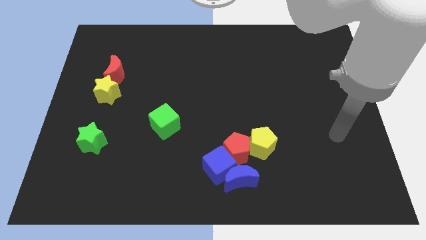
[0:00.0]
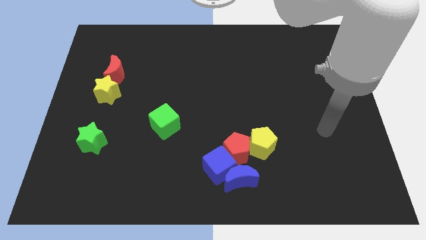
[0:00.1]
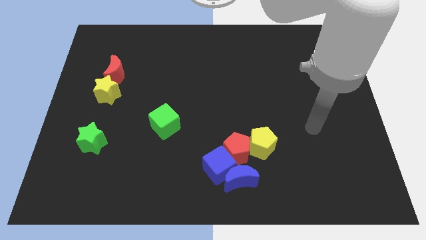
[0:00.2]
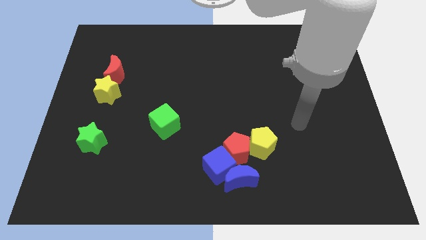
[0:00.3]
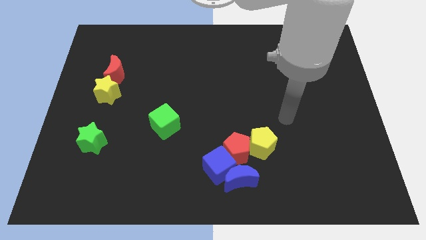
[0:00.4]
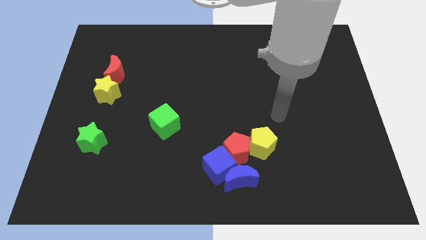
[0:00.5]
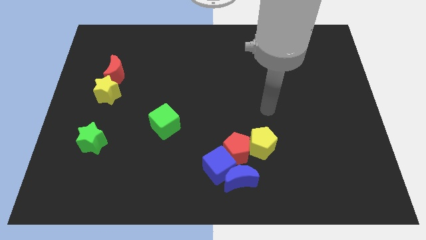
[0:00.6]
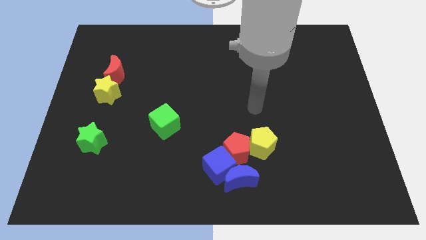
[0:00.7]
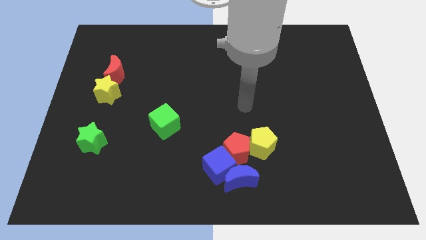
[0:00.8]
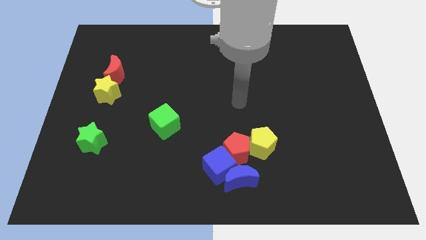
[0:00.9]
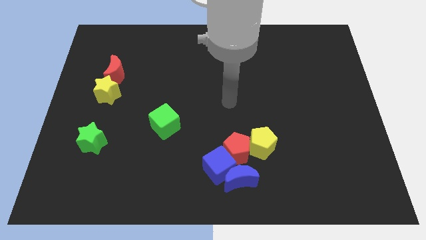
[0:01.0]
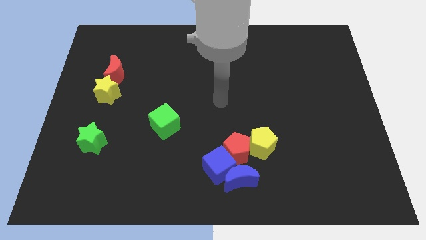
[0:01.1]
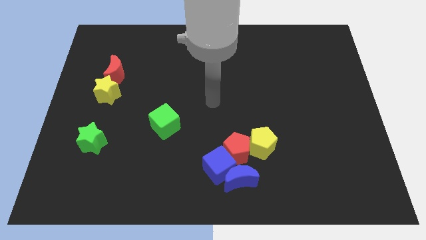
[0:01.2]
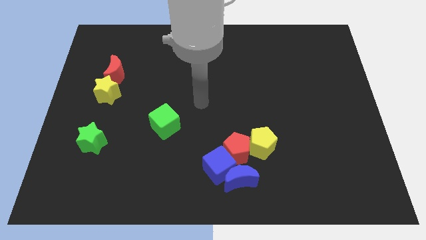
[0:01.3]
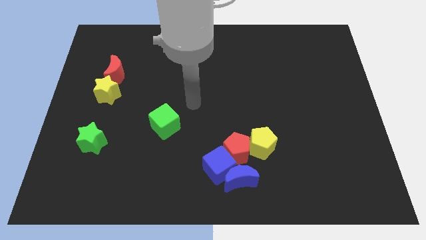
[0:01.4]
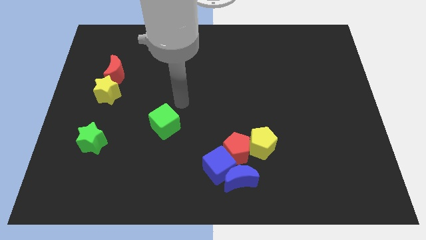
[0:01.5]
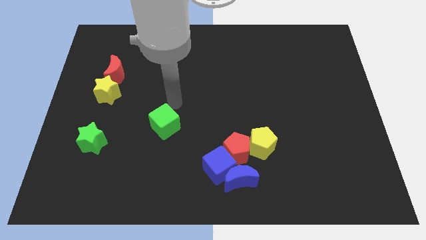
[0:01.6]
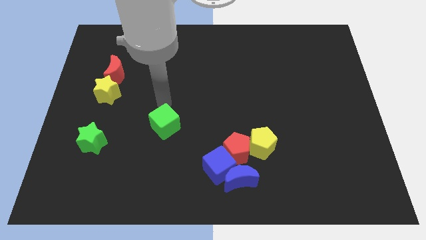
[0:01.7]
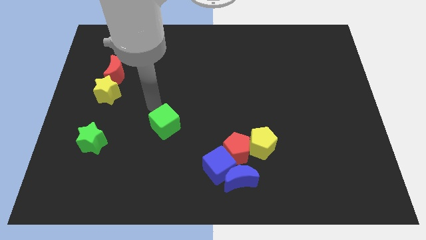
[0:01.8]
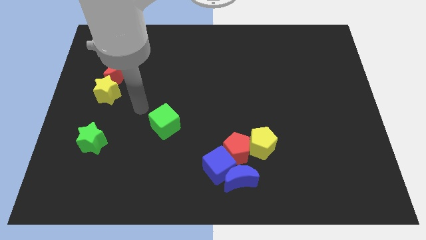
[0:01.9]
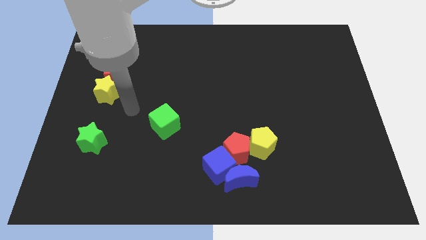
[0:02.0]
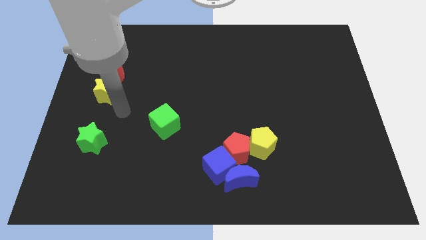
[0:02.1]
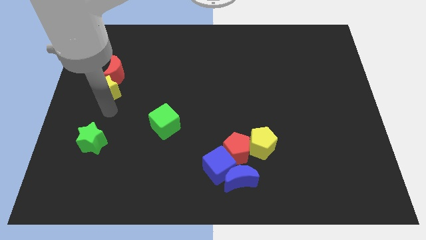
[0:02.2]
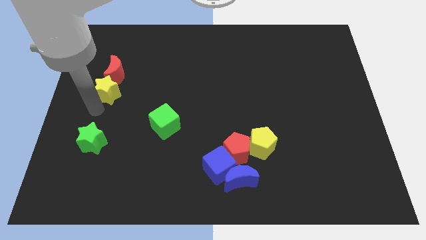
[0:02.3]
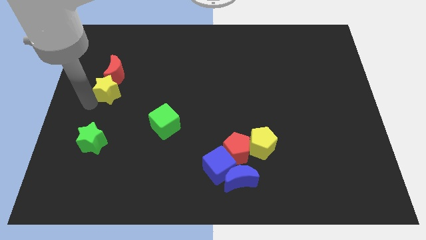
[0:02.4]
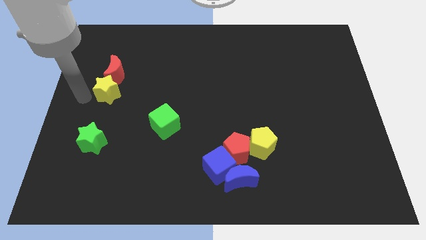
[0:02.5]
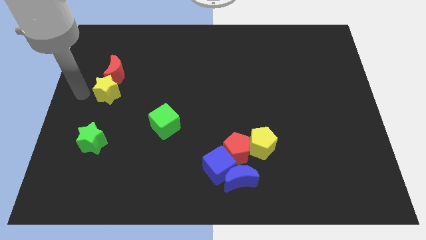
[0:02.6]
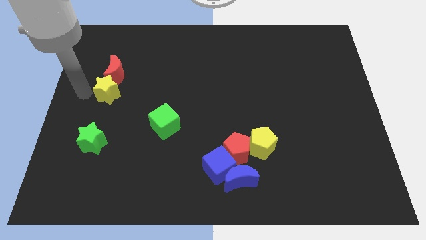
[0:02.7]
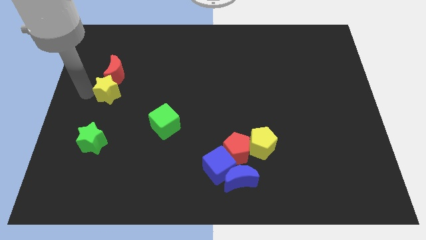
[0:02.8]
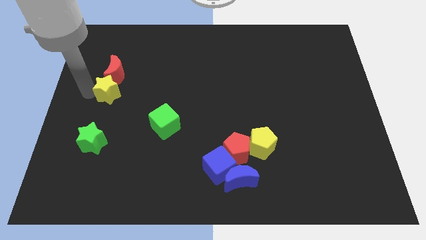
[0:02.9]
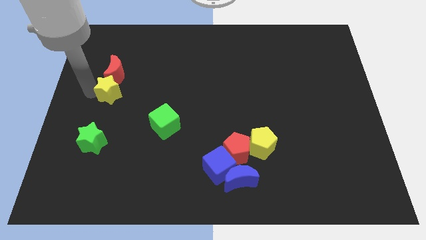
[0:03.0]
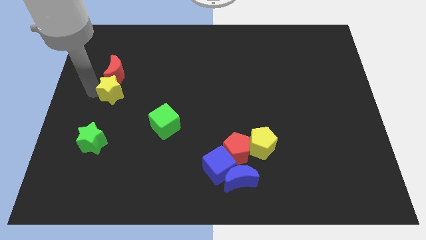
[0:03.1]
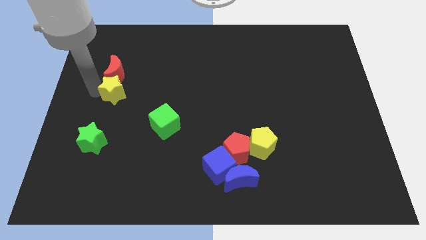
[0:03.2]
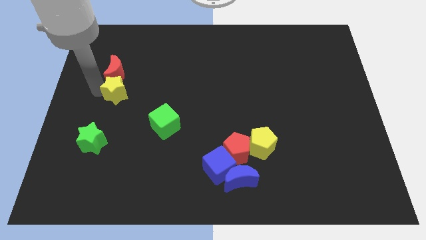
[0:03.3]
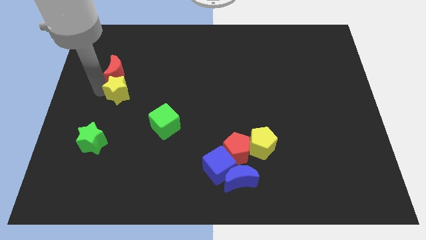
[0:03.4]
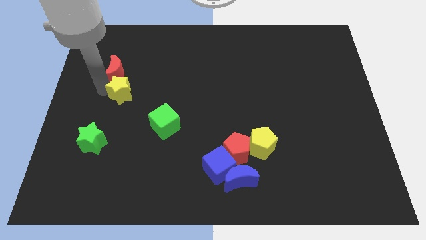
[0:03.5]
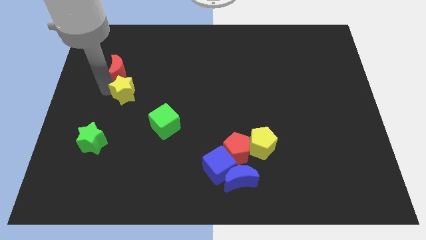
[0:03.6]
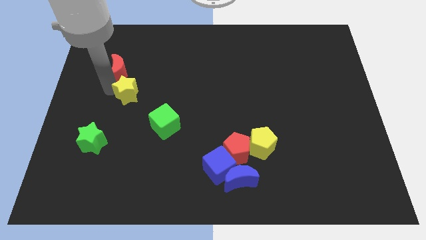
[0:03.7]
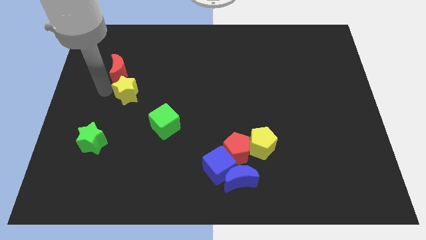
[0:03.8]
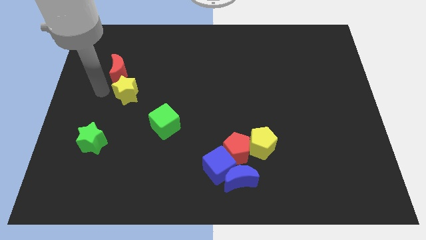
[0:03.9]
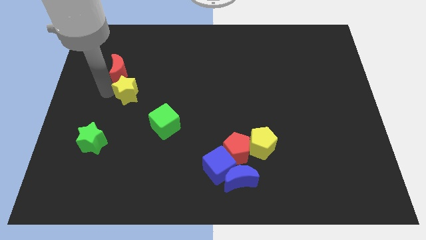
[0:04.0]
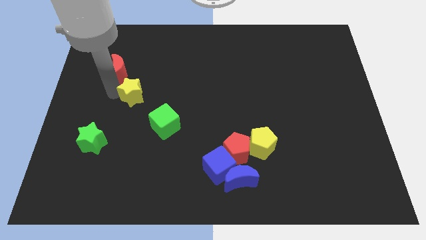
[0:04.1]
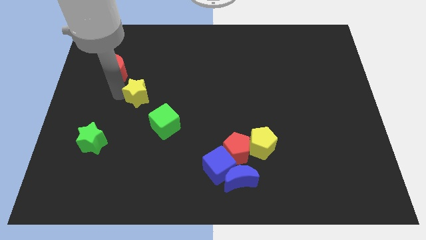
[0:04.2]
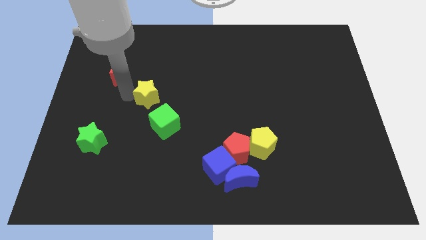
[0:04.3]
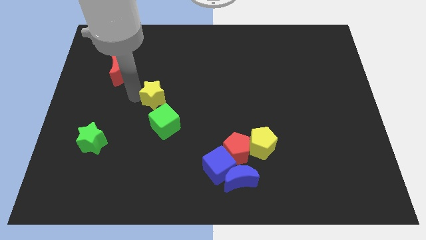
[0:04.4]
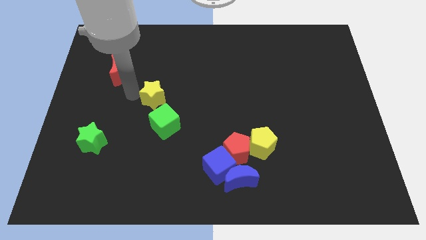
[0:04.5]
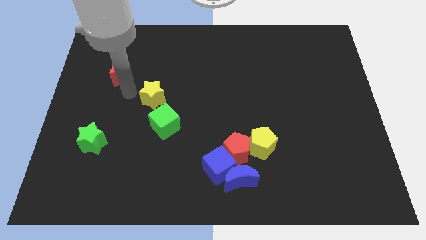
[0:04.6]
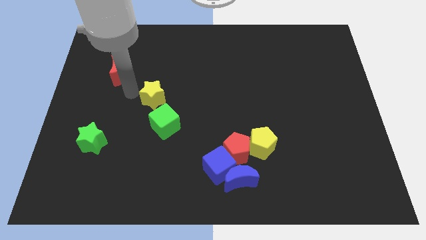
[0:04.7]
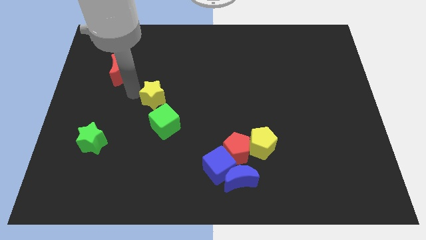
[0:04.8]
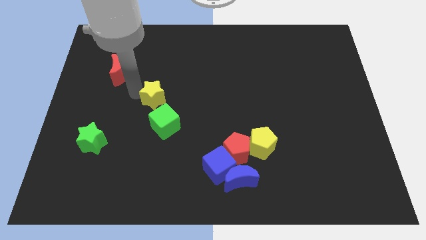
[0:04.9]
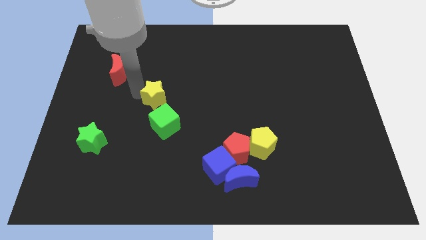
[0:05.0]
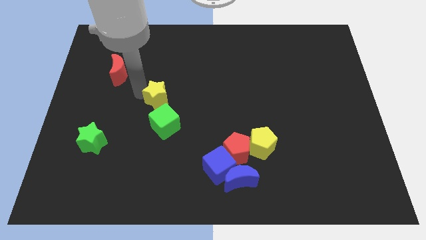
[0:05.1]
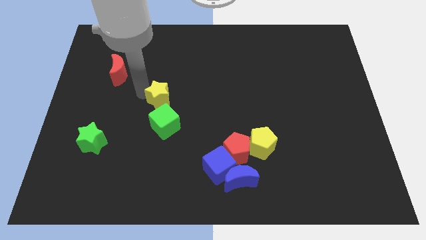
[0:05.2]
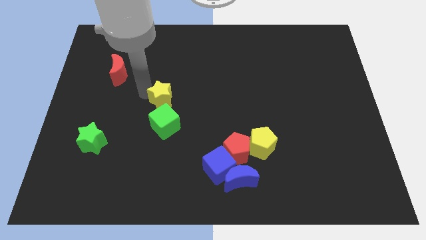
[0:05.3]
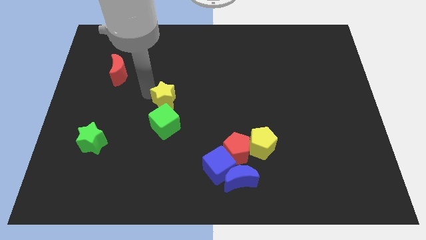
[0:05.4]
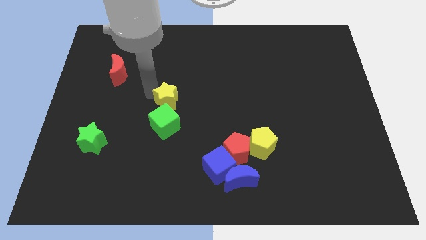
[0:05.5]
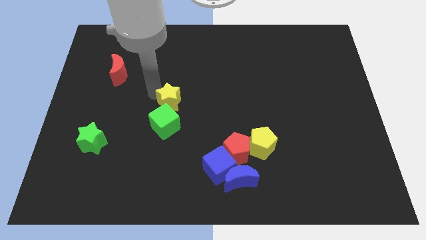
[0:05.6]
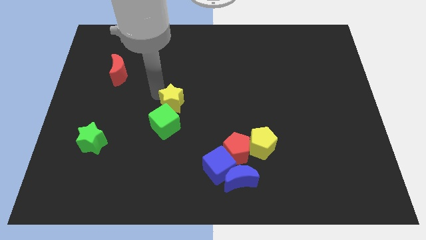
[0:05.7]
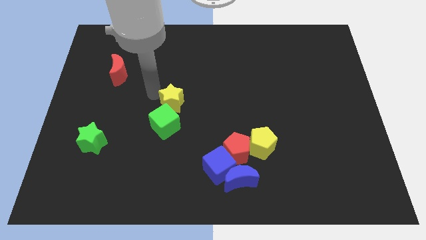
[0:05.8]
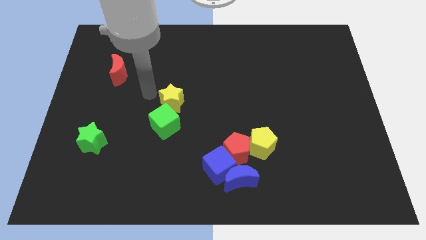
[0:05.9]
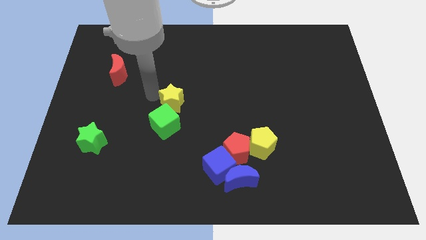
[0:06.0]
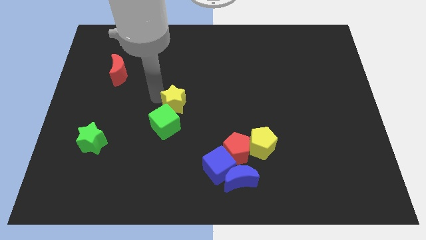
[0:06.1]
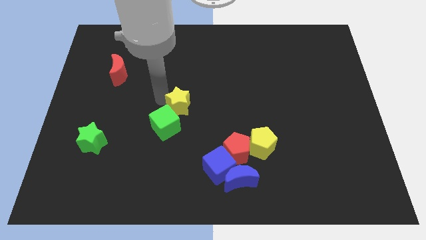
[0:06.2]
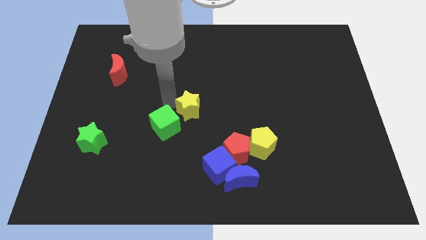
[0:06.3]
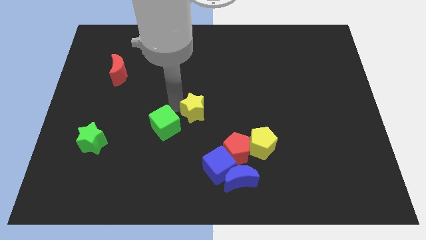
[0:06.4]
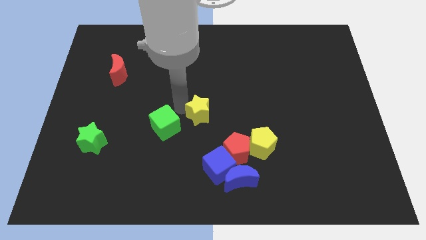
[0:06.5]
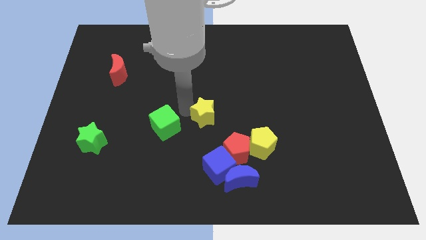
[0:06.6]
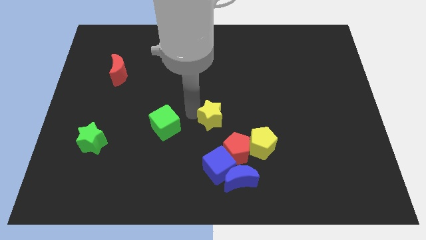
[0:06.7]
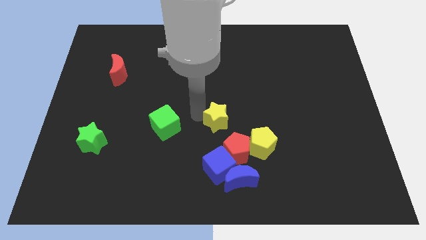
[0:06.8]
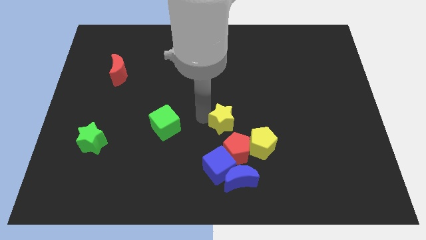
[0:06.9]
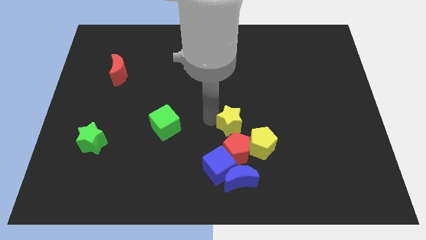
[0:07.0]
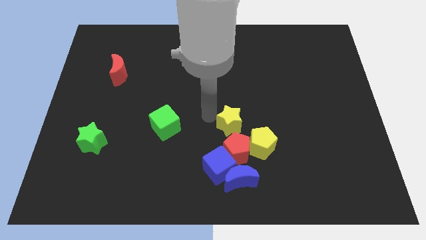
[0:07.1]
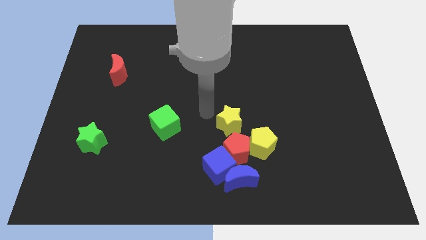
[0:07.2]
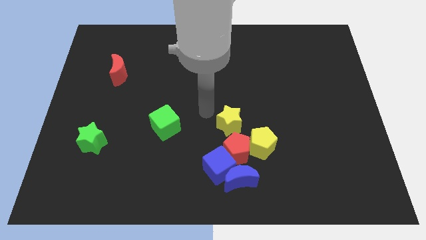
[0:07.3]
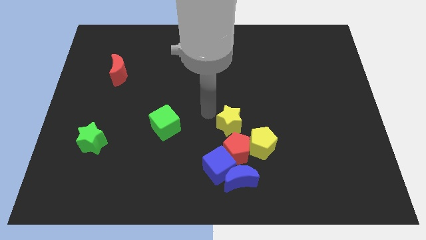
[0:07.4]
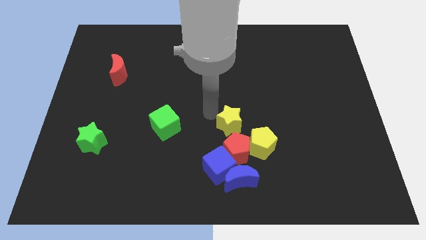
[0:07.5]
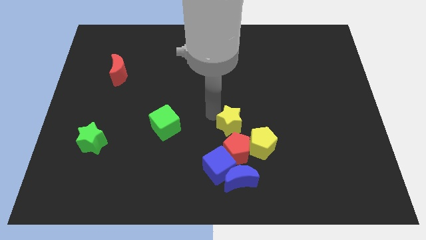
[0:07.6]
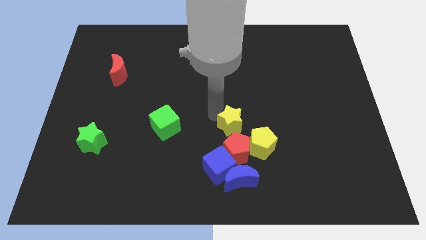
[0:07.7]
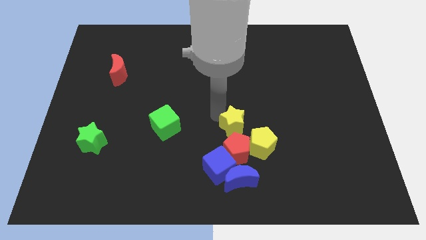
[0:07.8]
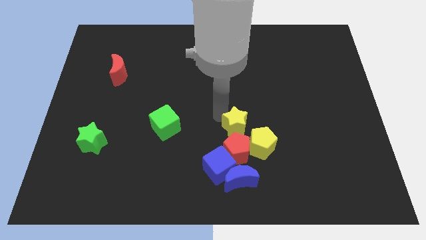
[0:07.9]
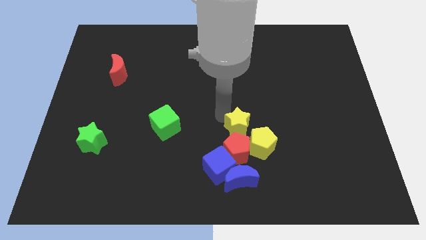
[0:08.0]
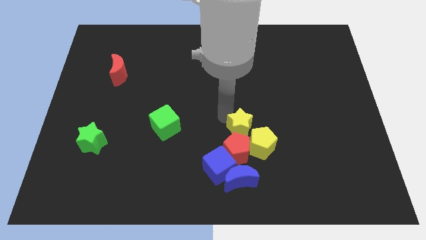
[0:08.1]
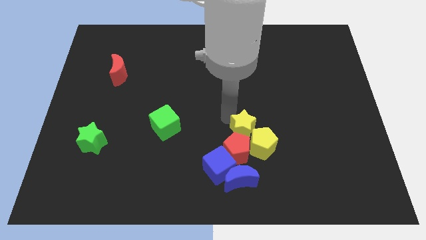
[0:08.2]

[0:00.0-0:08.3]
move the yellow star to the yellow pentagon
